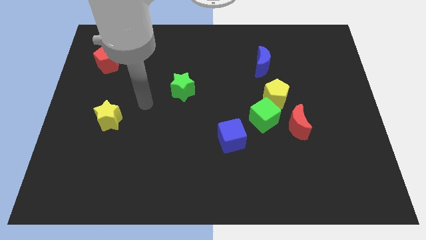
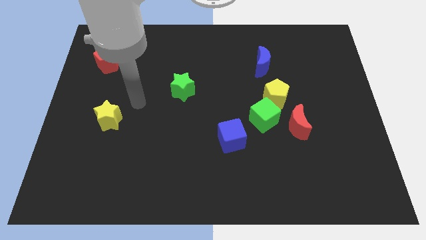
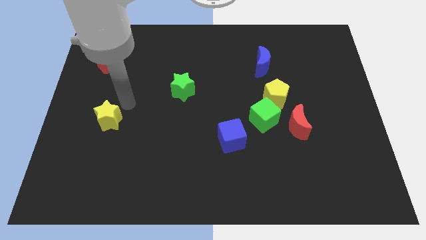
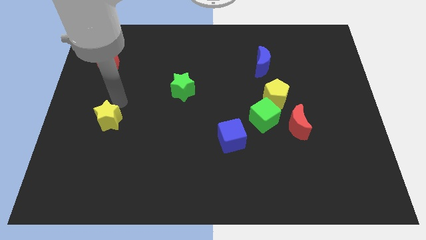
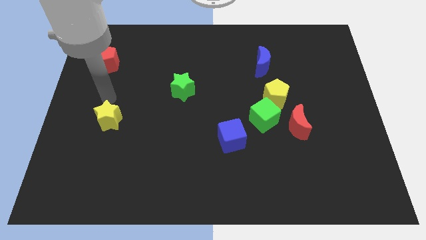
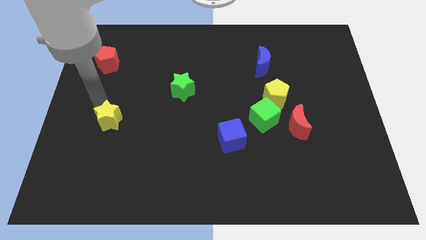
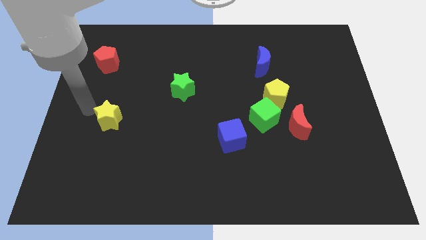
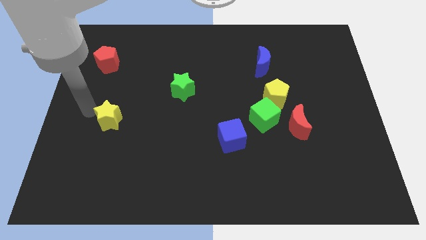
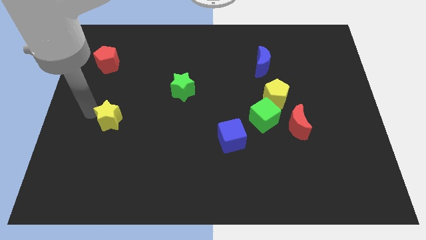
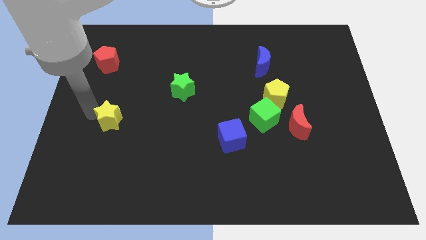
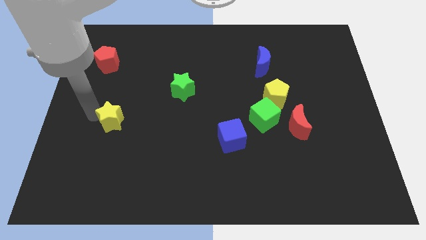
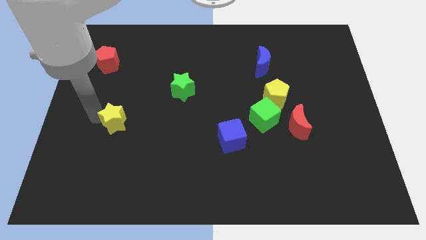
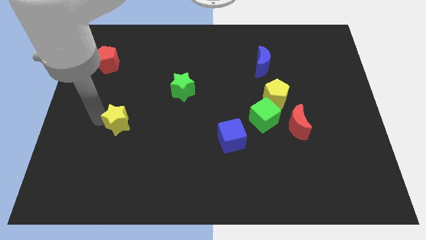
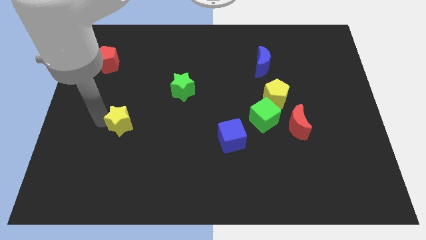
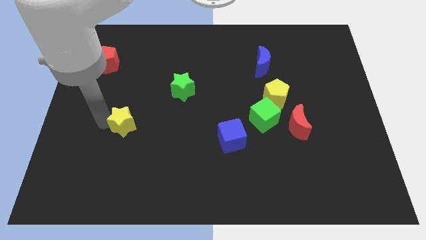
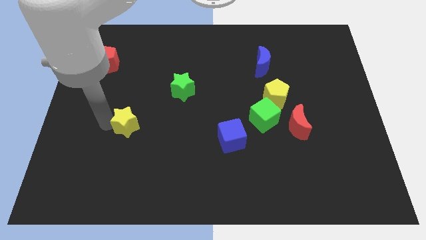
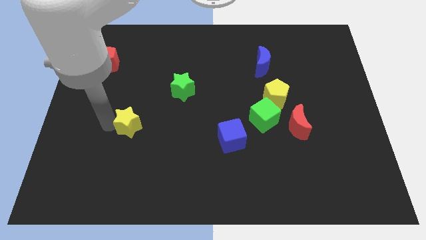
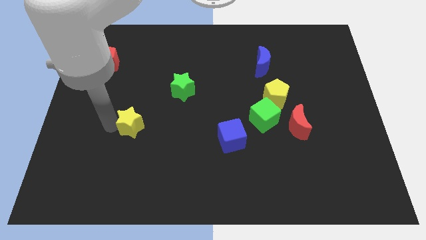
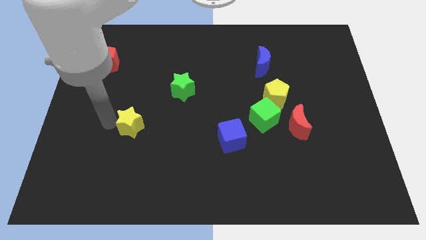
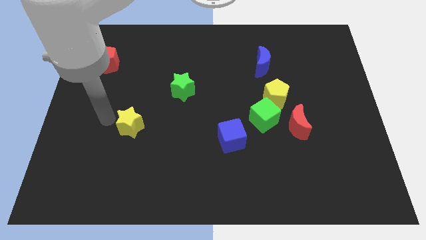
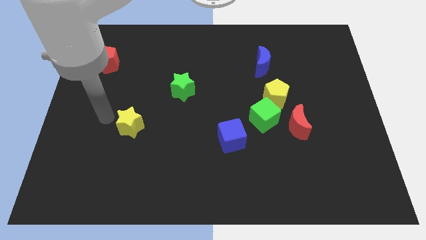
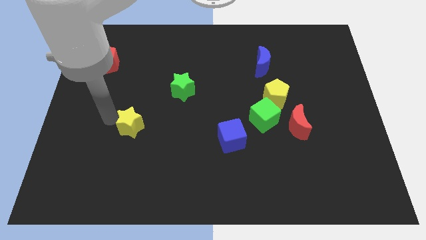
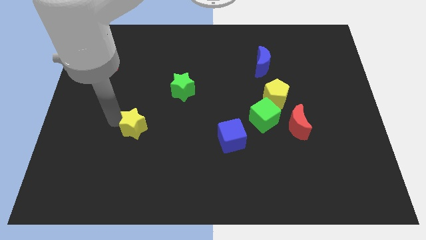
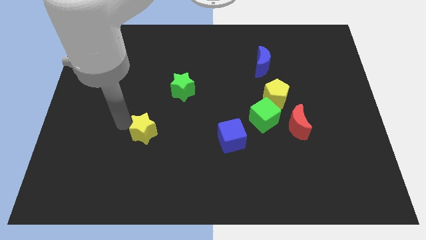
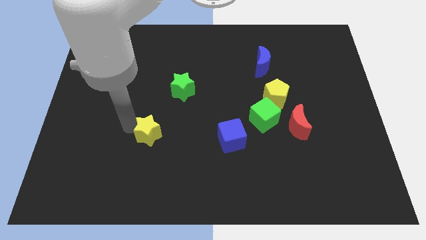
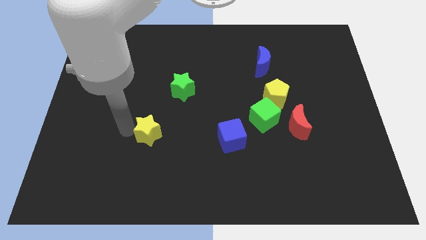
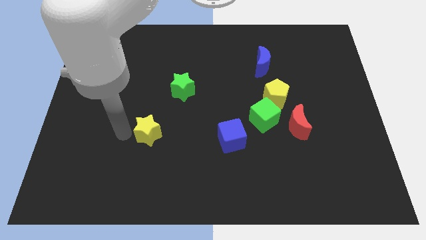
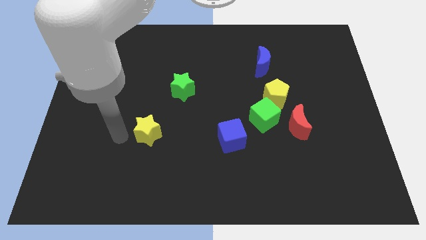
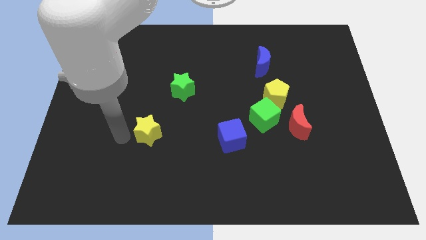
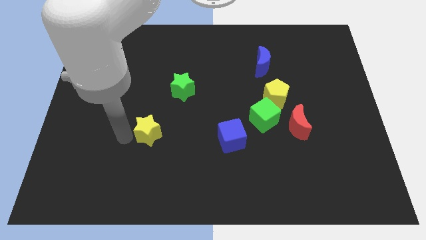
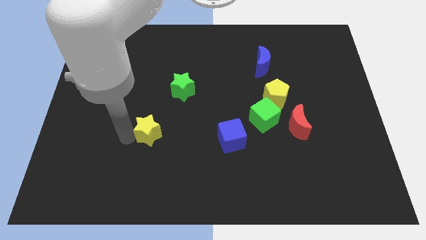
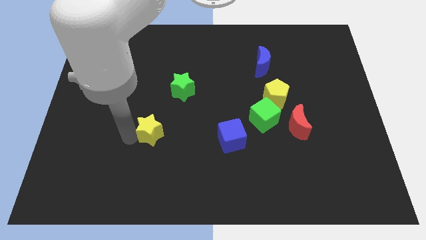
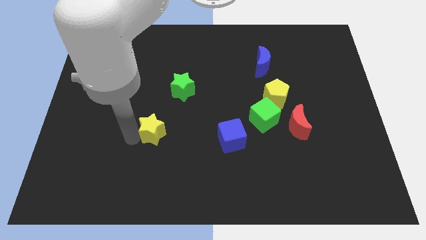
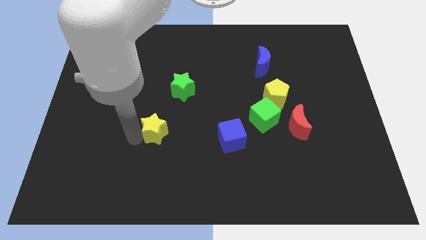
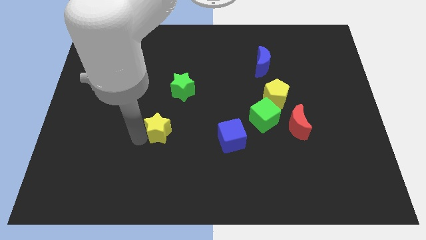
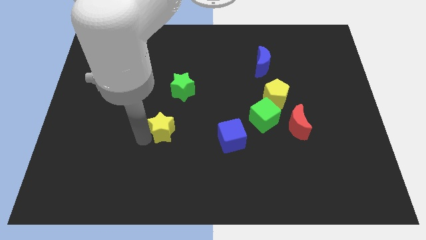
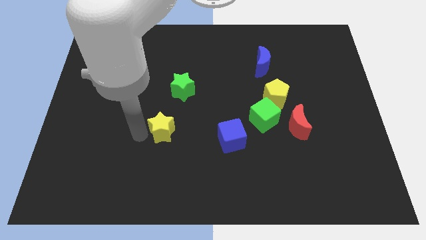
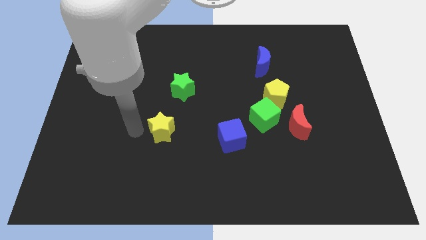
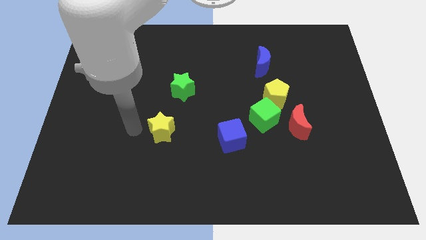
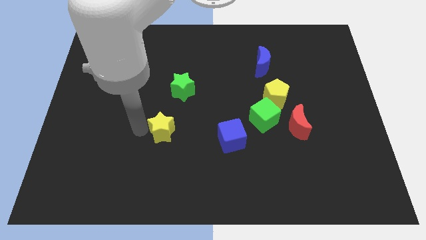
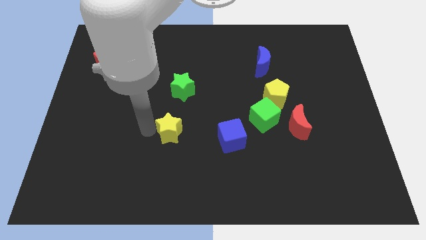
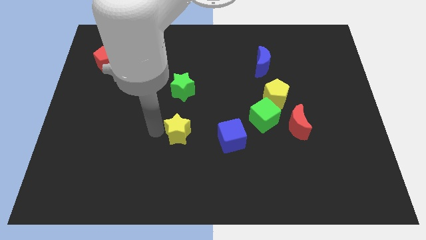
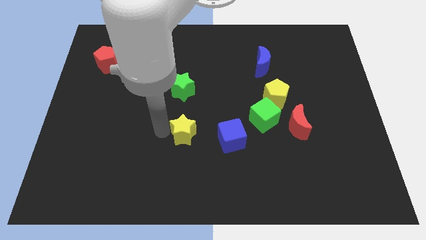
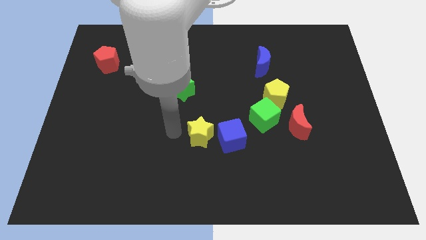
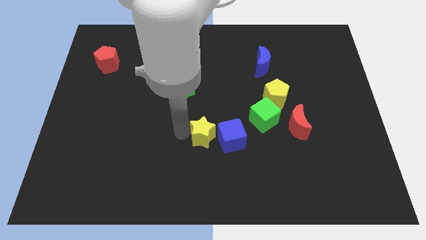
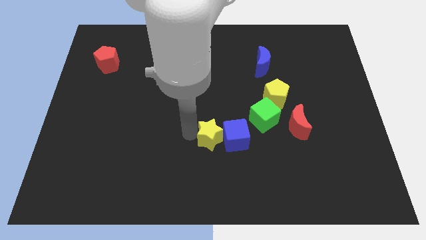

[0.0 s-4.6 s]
put the yellow star close to the blue cube

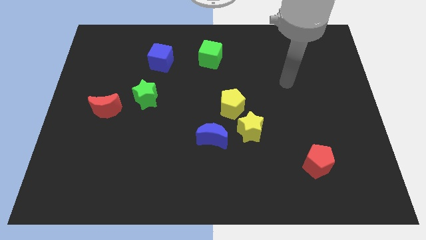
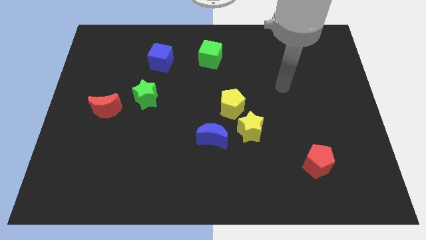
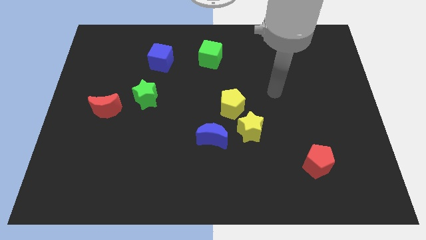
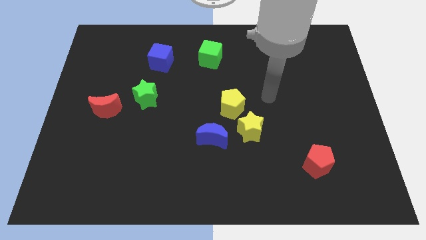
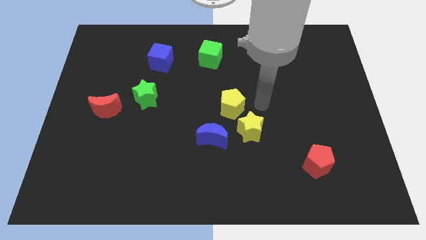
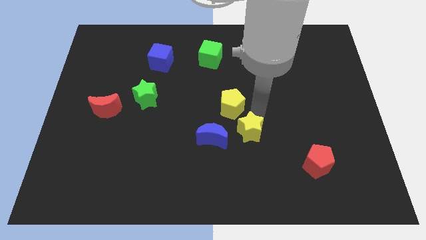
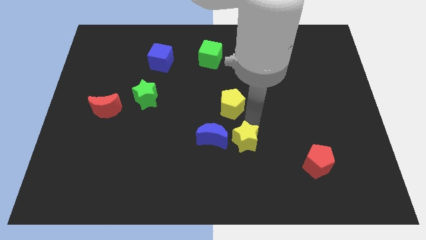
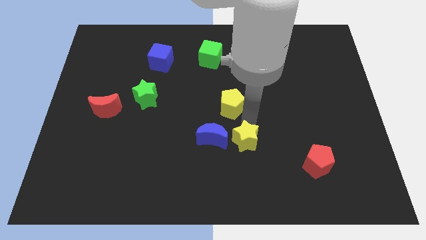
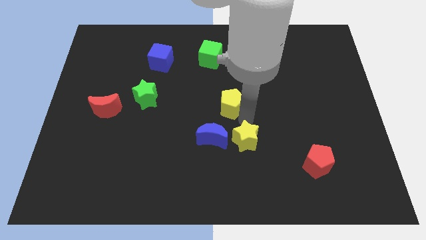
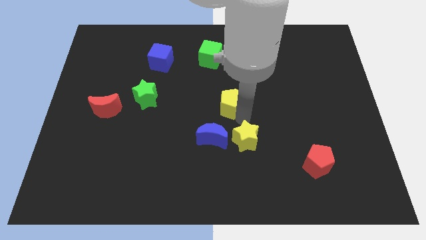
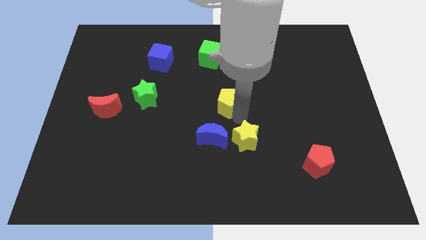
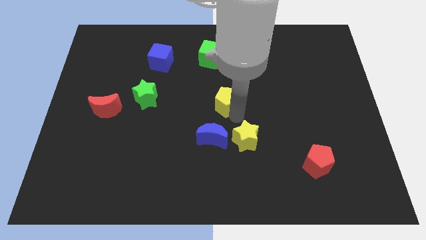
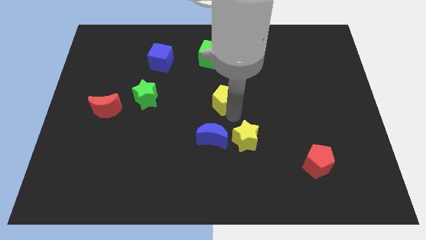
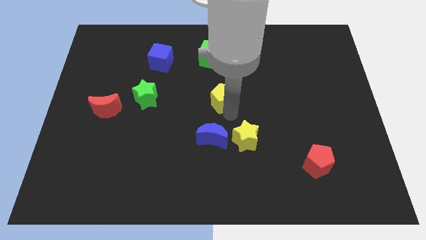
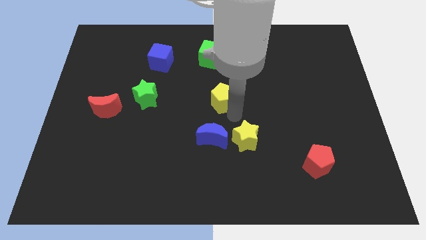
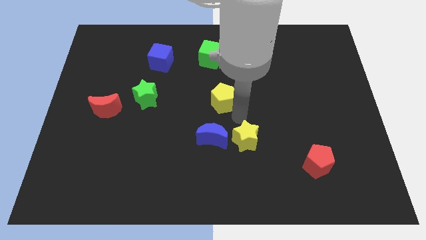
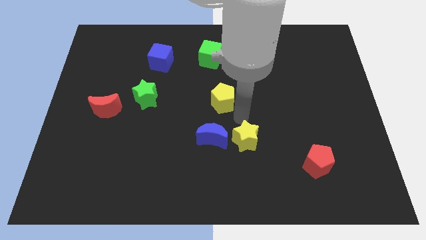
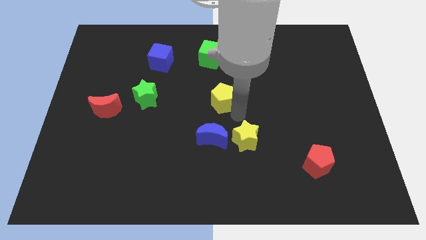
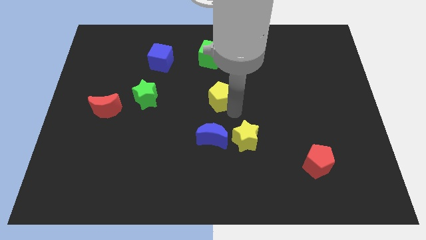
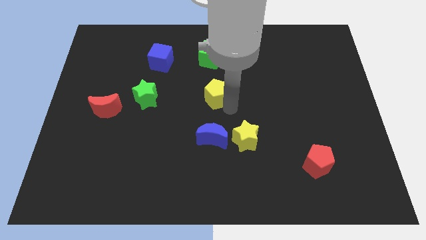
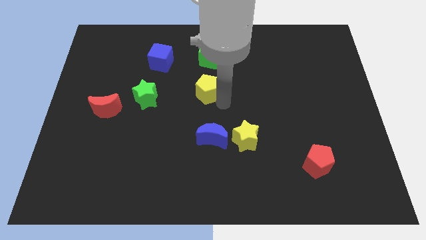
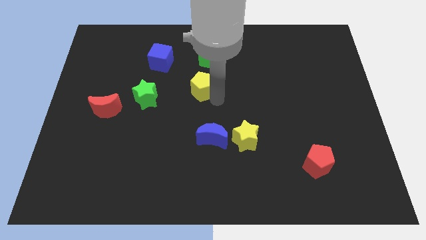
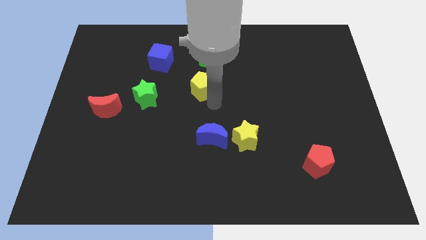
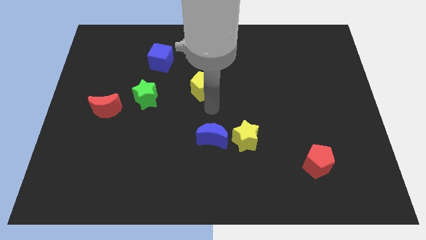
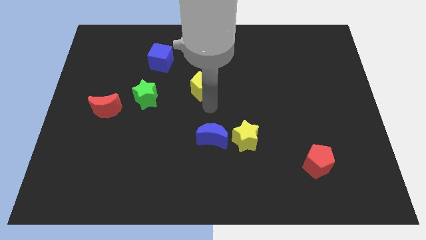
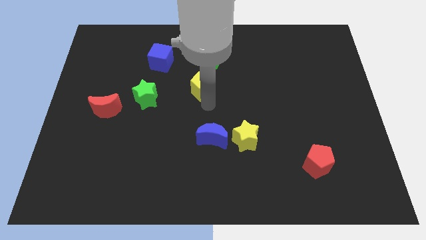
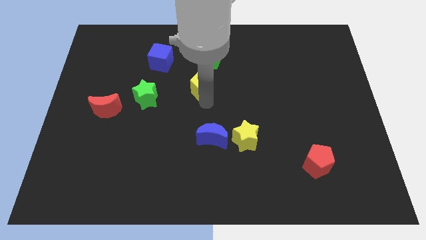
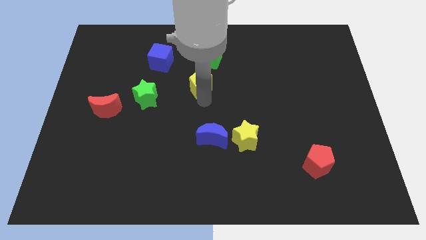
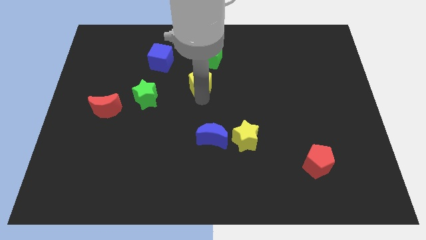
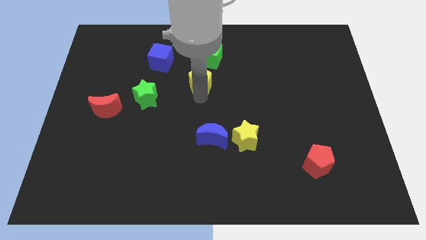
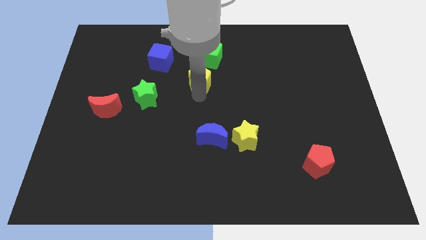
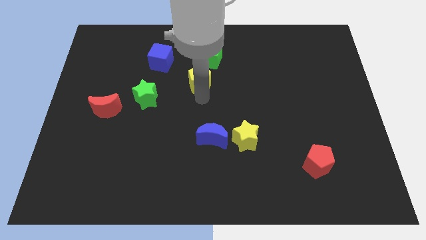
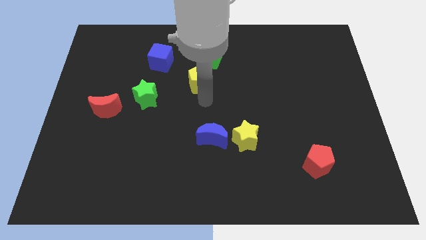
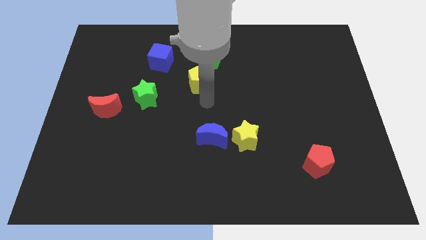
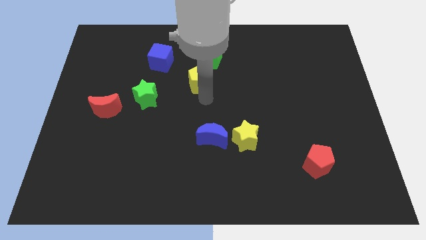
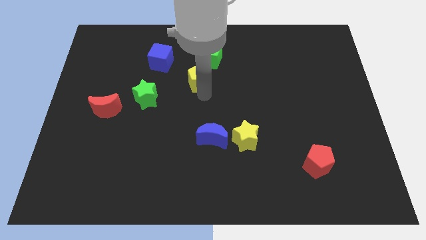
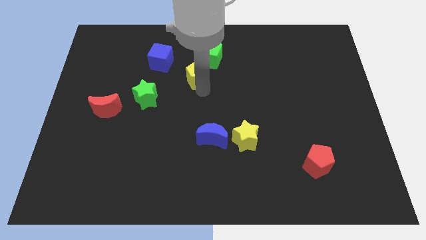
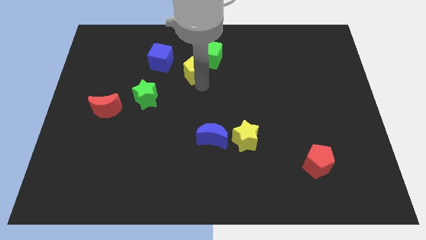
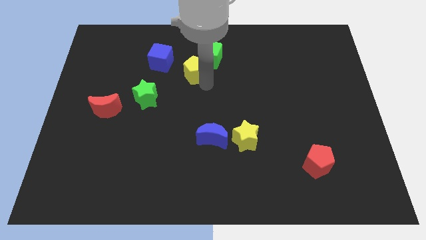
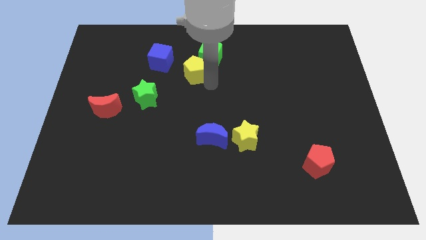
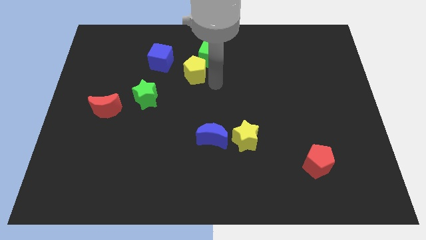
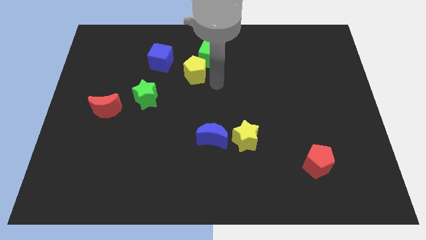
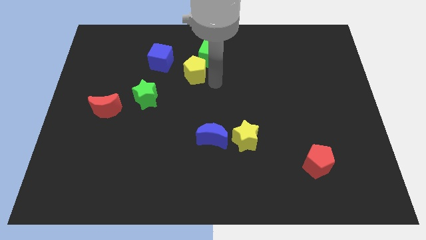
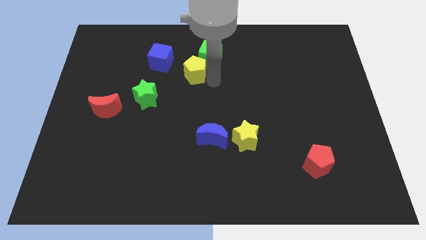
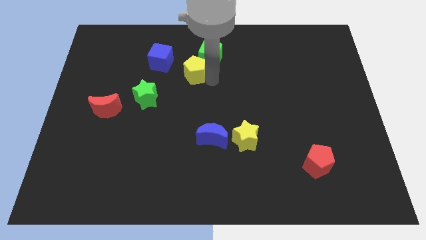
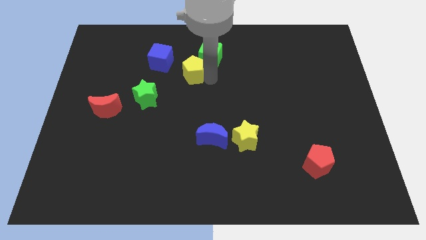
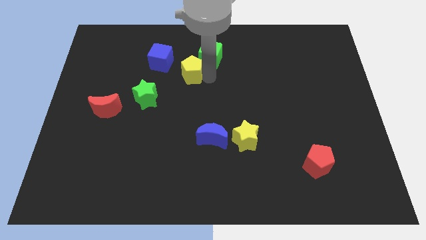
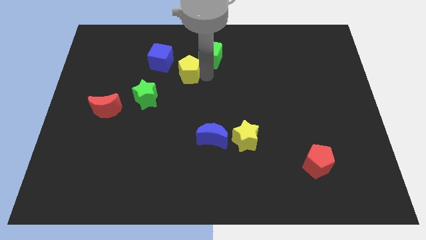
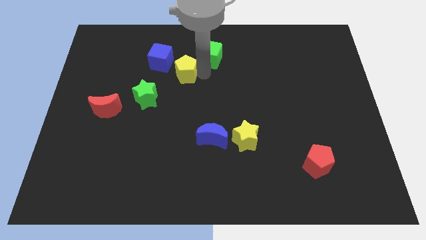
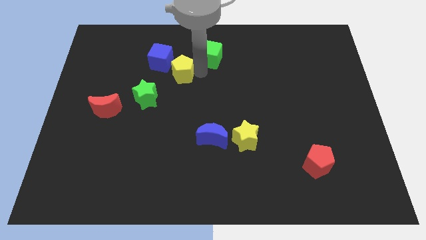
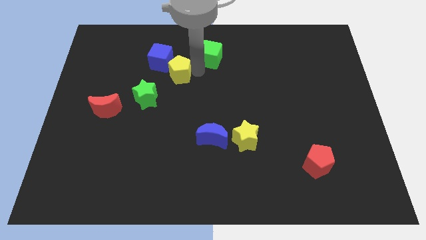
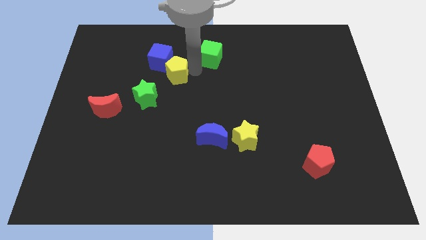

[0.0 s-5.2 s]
push the yellow pentagon to the blue cube
